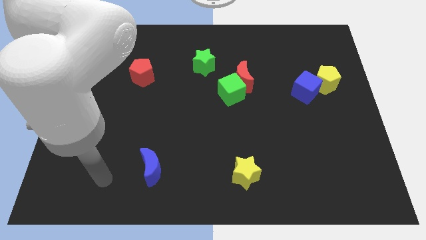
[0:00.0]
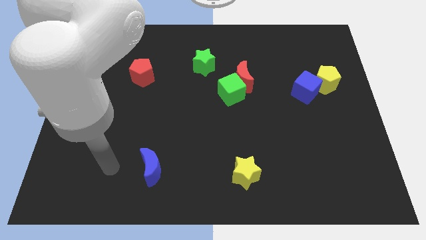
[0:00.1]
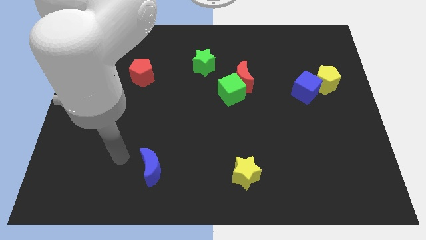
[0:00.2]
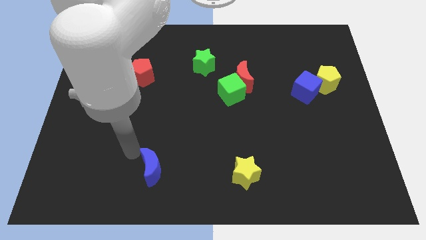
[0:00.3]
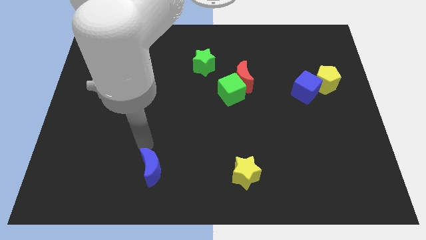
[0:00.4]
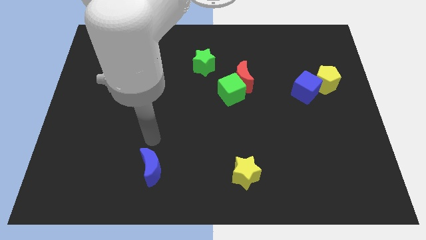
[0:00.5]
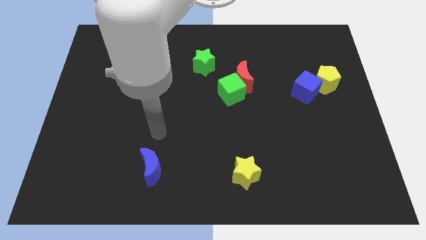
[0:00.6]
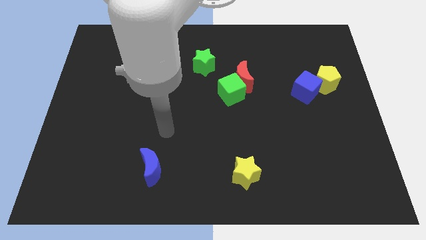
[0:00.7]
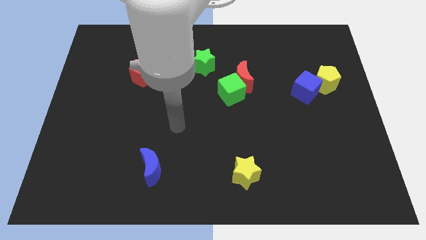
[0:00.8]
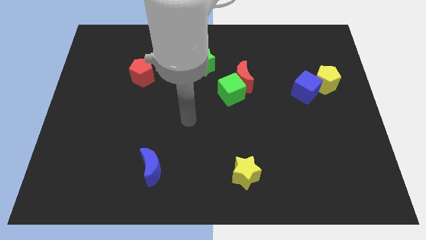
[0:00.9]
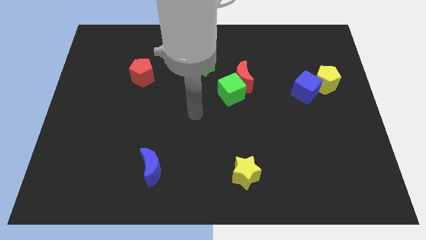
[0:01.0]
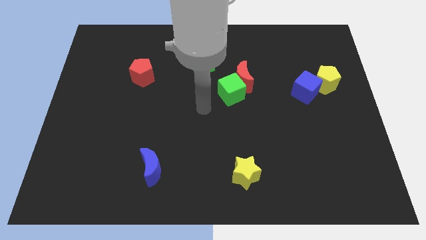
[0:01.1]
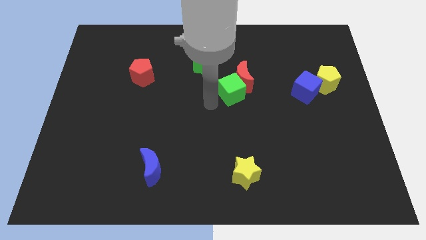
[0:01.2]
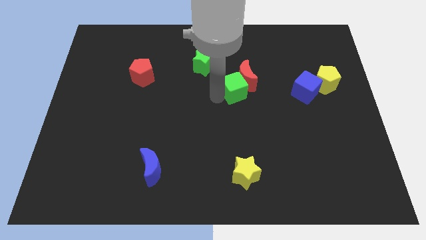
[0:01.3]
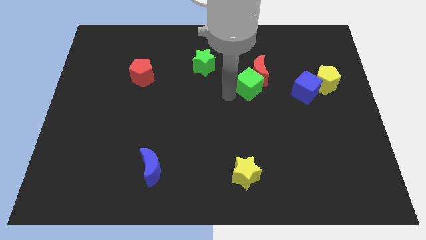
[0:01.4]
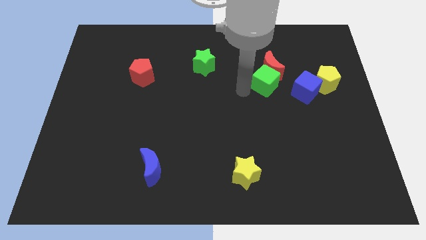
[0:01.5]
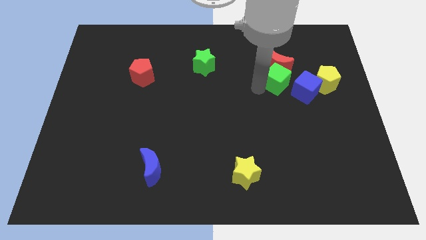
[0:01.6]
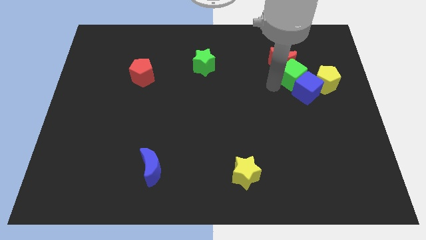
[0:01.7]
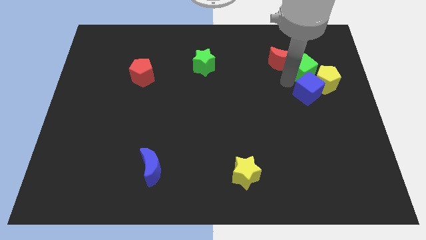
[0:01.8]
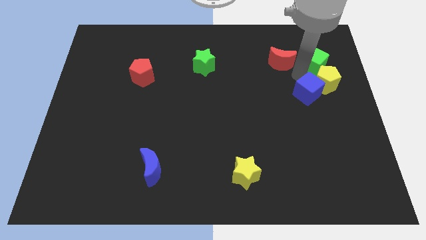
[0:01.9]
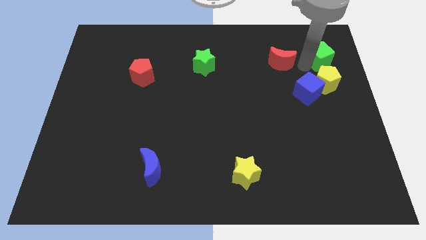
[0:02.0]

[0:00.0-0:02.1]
move the red moon away from the green cube

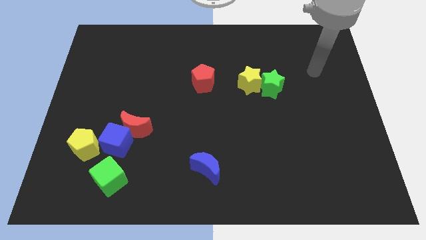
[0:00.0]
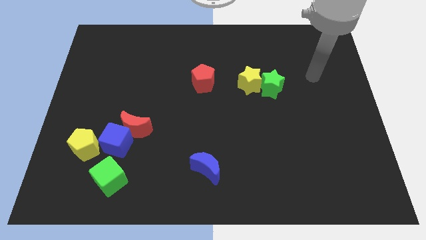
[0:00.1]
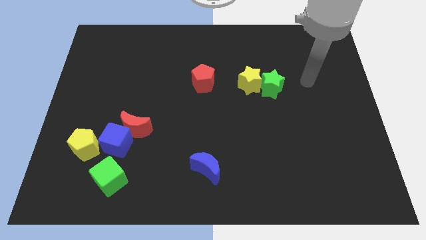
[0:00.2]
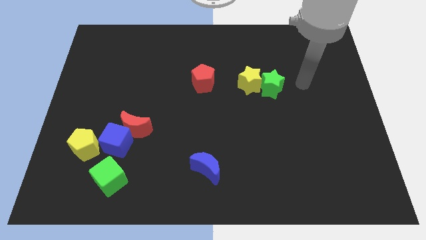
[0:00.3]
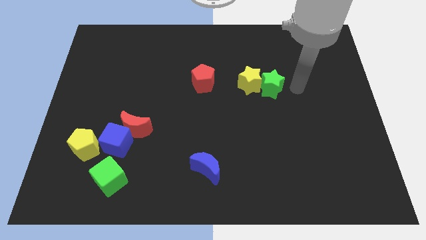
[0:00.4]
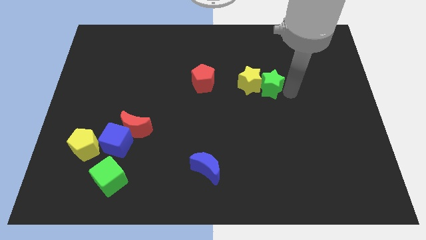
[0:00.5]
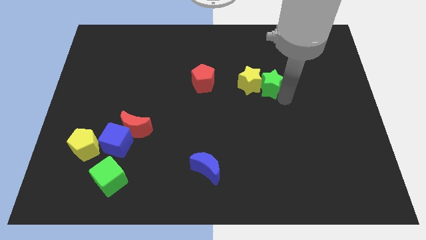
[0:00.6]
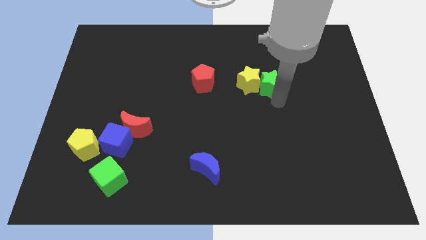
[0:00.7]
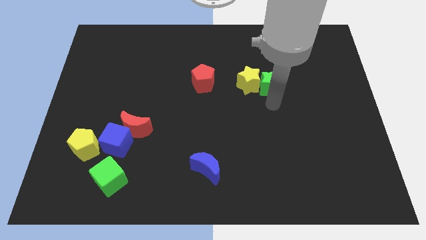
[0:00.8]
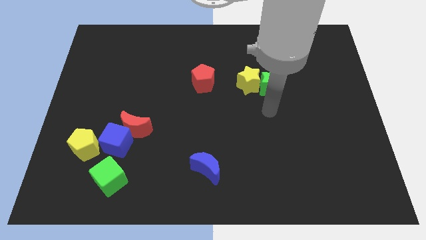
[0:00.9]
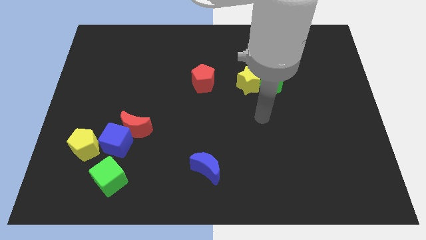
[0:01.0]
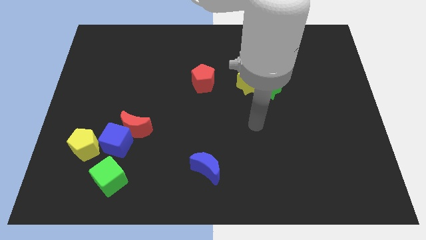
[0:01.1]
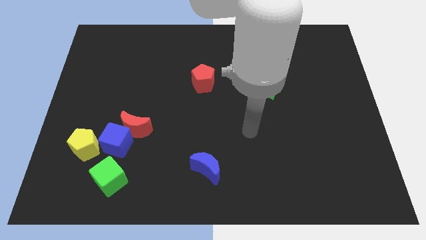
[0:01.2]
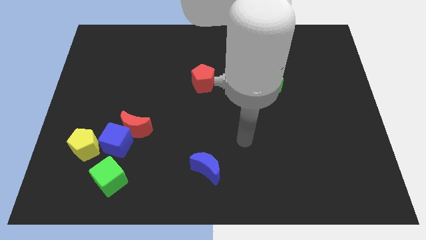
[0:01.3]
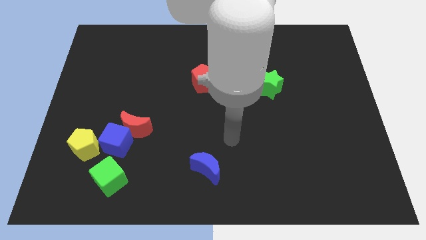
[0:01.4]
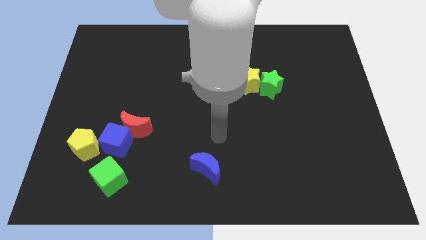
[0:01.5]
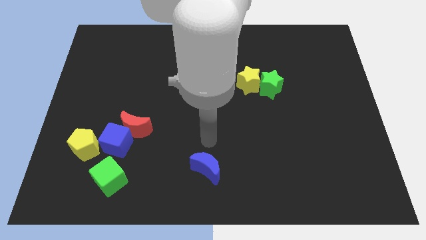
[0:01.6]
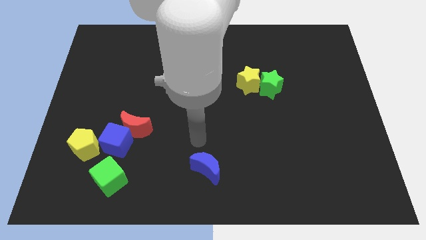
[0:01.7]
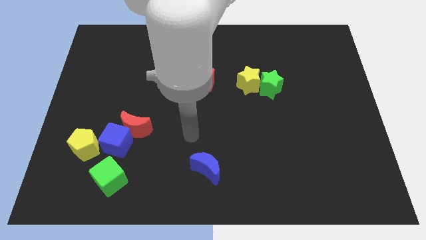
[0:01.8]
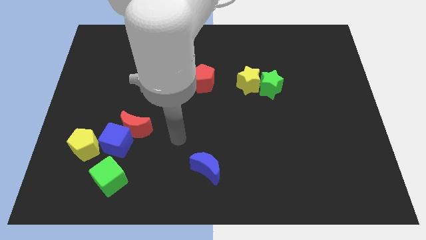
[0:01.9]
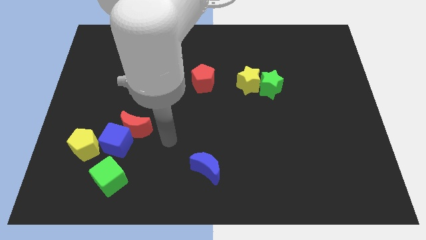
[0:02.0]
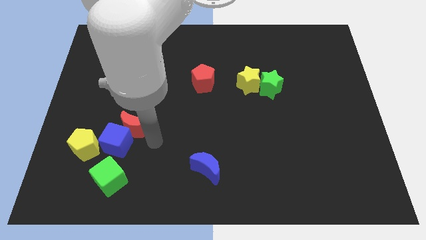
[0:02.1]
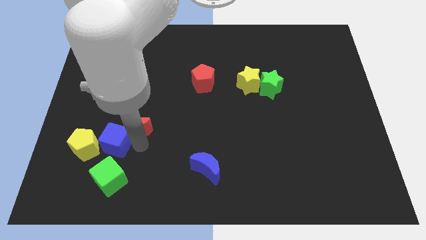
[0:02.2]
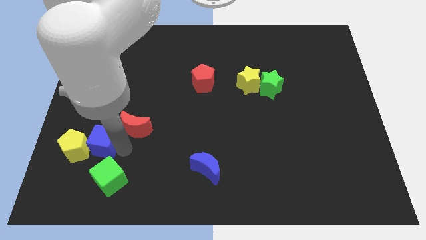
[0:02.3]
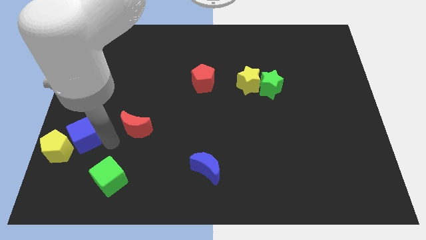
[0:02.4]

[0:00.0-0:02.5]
move the red moon away from the blue cube

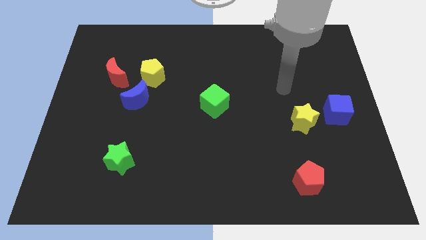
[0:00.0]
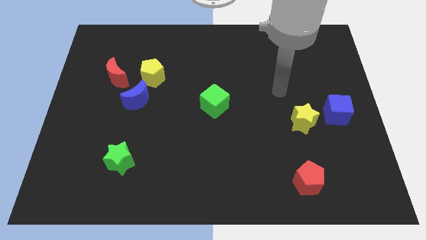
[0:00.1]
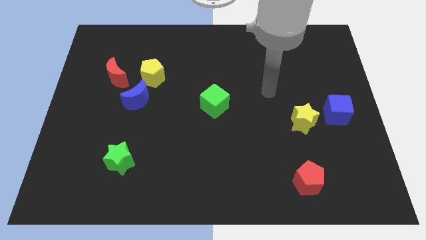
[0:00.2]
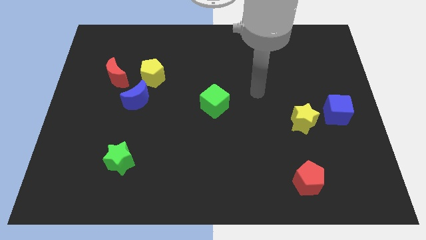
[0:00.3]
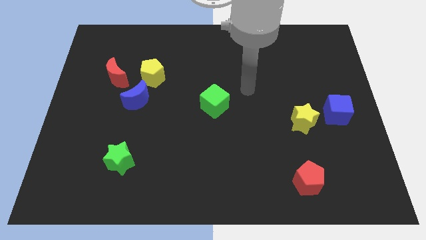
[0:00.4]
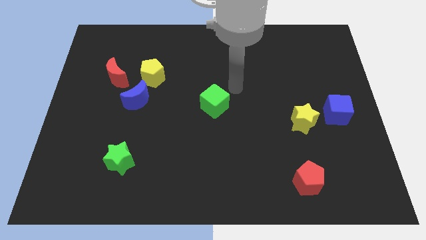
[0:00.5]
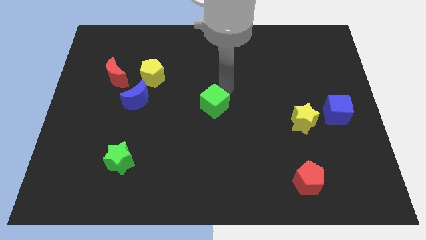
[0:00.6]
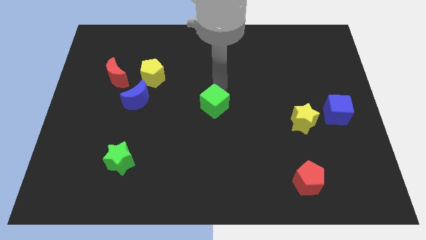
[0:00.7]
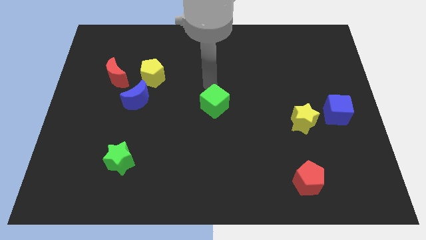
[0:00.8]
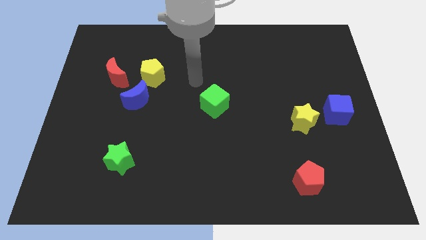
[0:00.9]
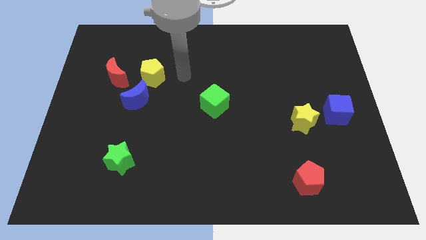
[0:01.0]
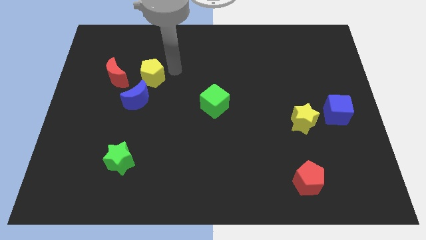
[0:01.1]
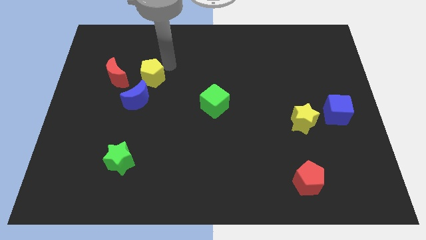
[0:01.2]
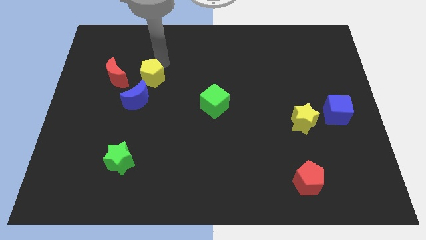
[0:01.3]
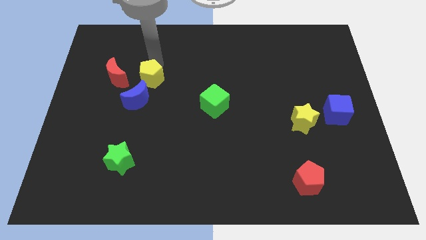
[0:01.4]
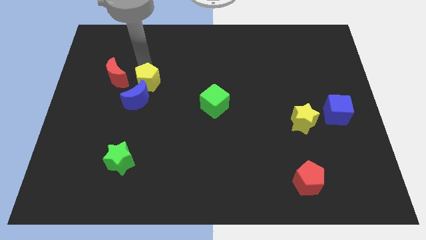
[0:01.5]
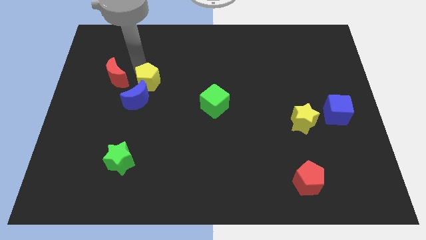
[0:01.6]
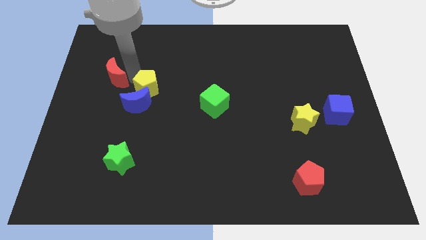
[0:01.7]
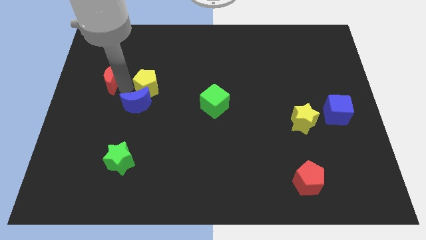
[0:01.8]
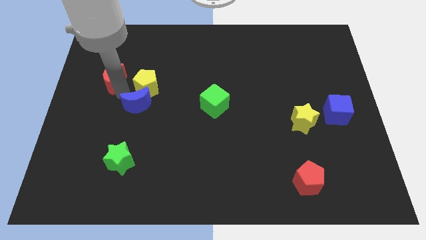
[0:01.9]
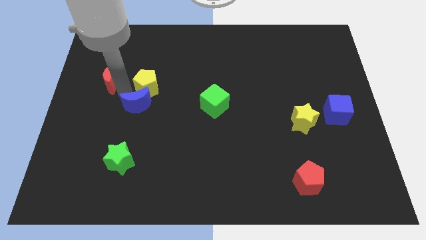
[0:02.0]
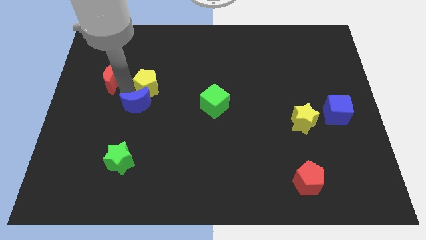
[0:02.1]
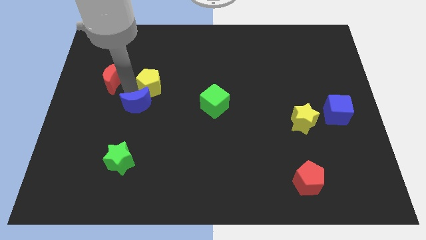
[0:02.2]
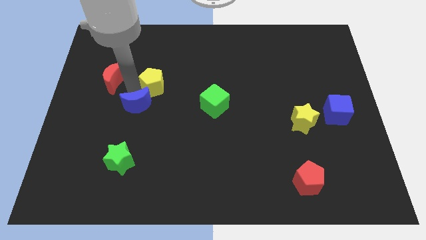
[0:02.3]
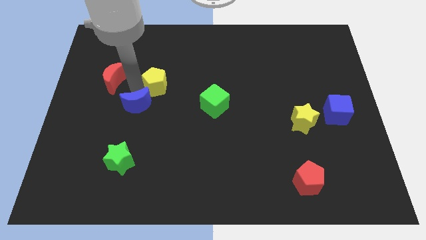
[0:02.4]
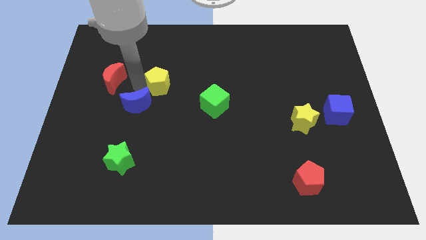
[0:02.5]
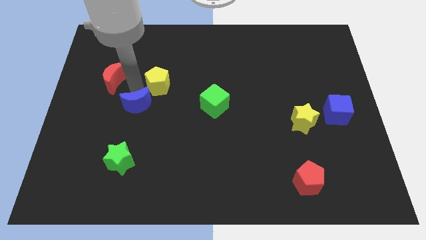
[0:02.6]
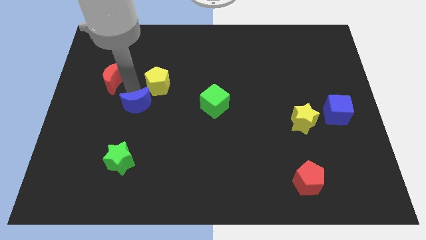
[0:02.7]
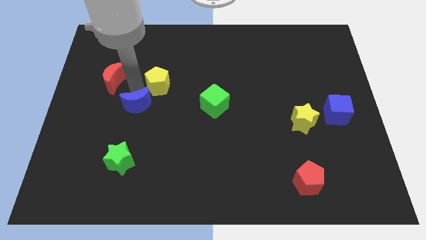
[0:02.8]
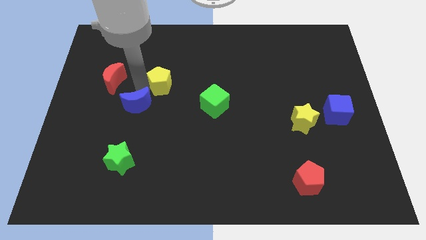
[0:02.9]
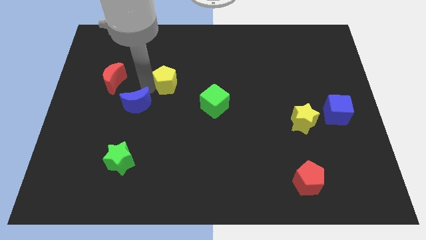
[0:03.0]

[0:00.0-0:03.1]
pull the yellow pentagon apart from the blue moon and red moon

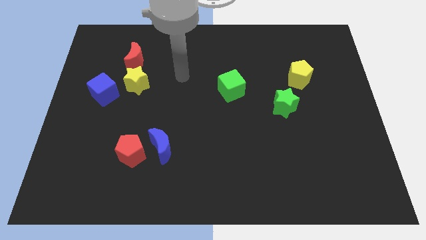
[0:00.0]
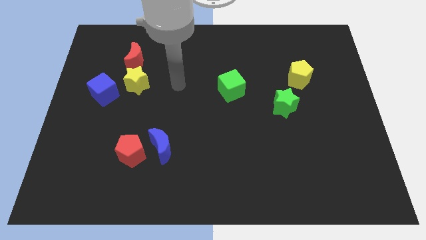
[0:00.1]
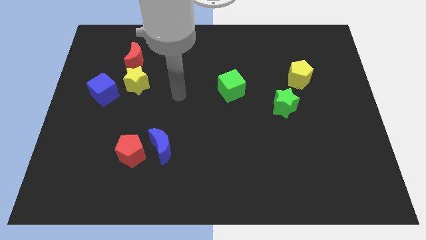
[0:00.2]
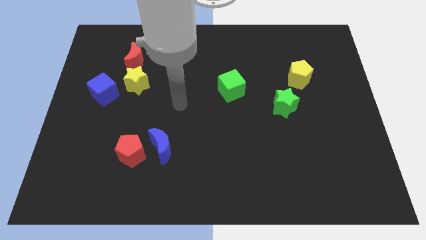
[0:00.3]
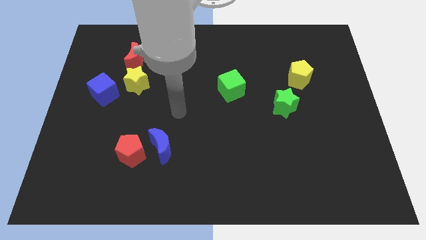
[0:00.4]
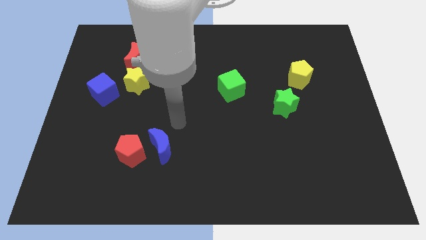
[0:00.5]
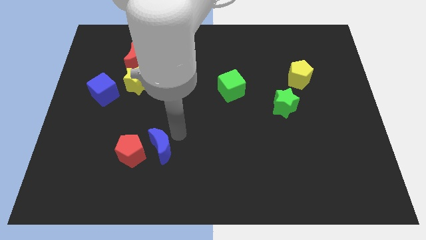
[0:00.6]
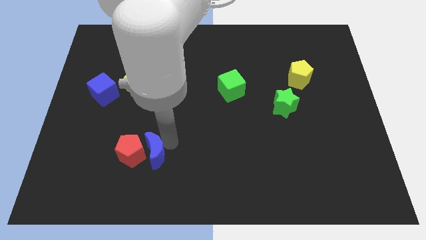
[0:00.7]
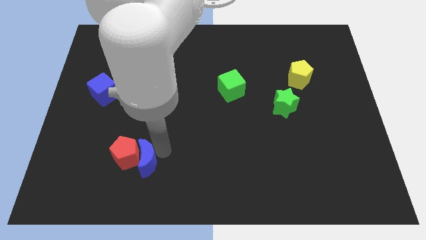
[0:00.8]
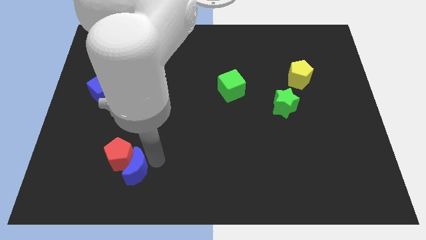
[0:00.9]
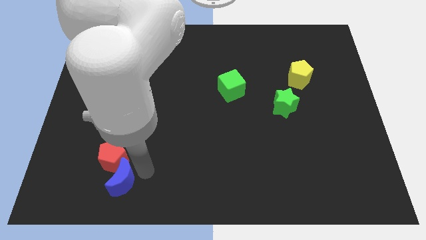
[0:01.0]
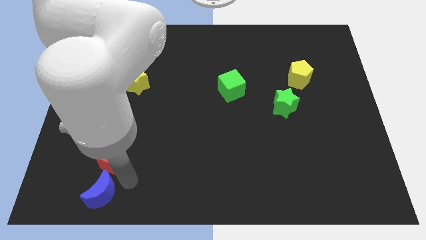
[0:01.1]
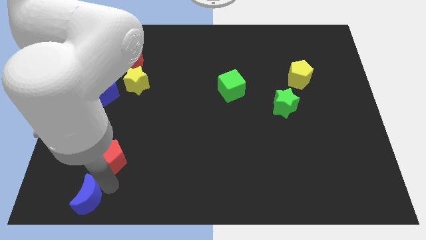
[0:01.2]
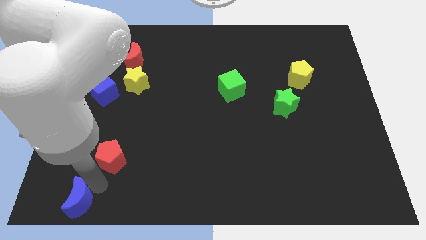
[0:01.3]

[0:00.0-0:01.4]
pull the red pentagon apart from the blue moon

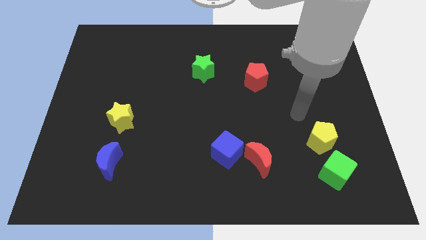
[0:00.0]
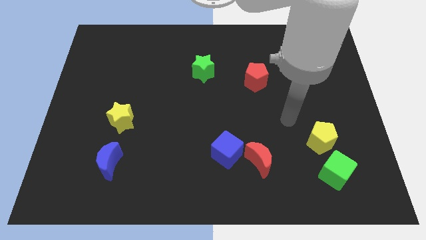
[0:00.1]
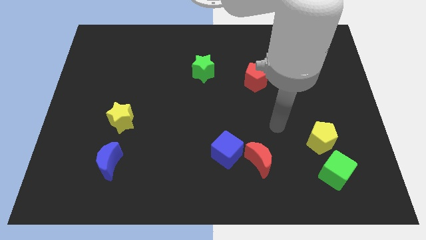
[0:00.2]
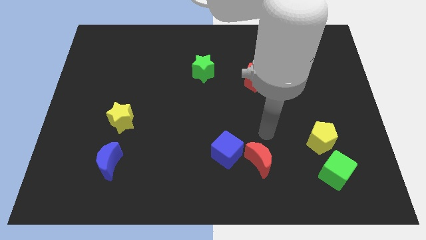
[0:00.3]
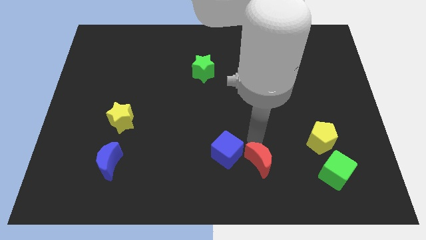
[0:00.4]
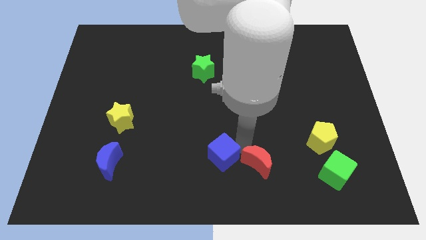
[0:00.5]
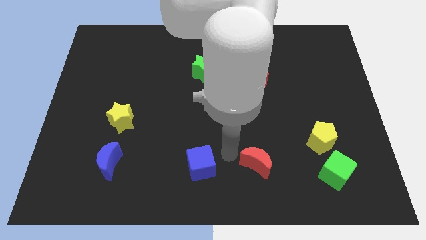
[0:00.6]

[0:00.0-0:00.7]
separate the red moon from the blue cube
